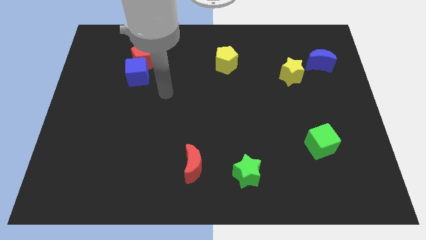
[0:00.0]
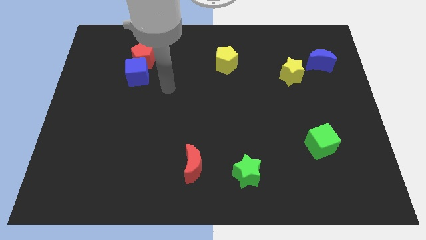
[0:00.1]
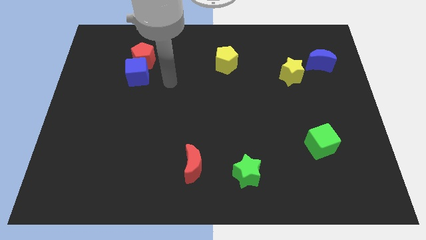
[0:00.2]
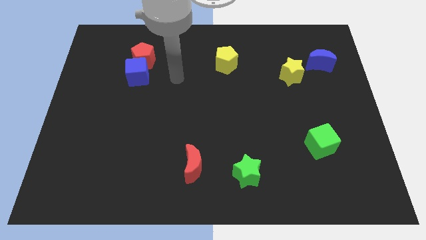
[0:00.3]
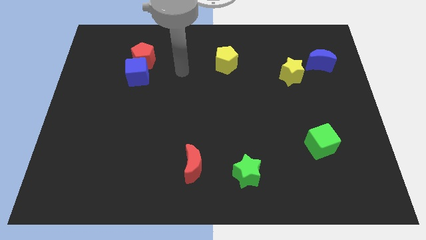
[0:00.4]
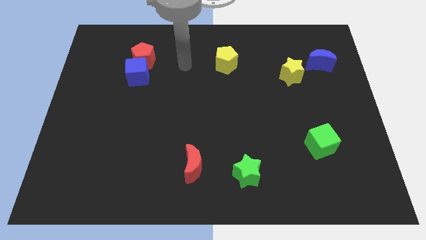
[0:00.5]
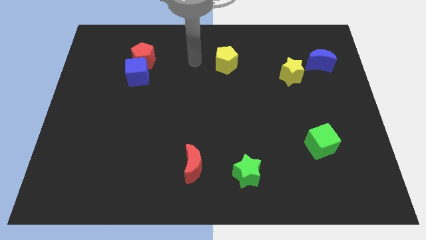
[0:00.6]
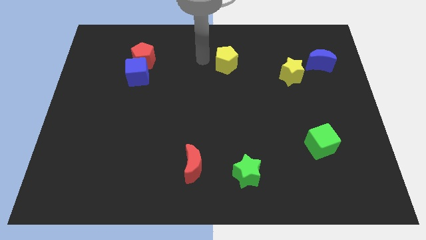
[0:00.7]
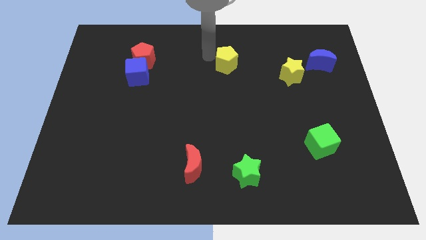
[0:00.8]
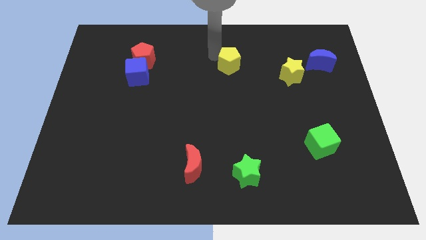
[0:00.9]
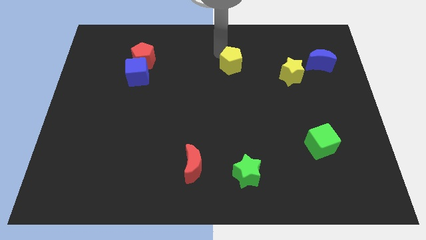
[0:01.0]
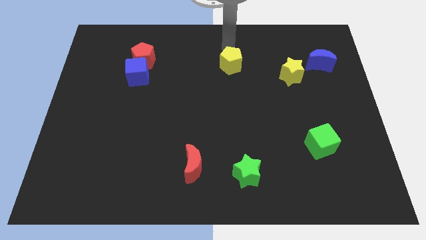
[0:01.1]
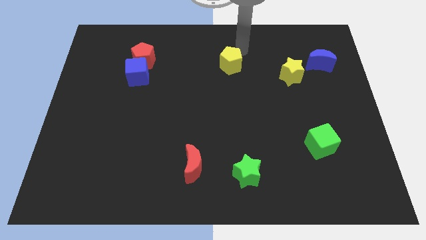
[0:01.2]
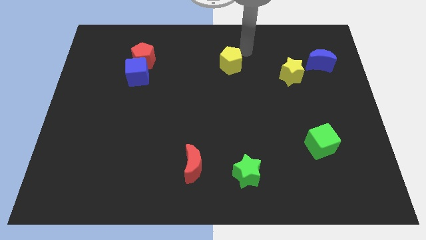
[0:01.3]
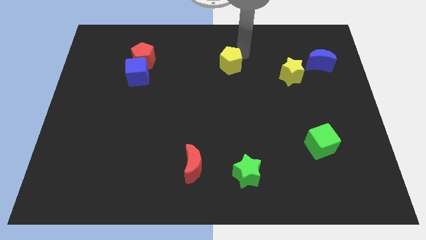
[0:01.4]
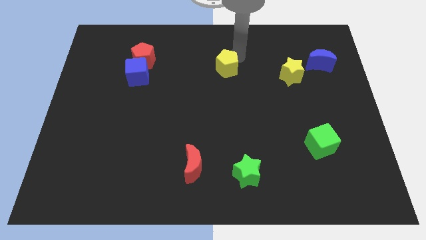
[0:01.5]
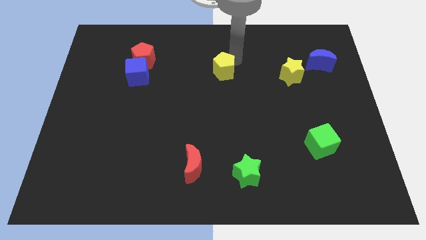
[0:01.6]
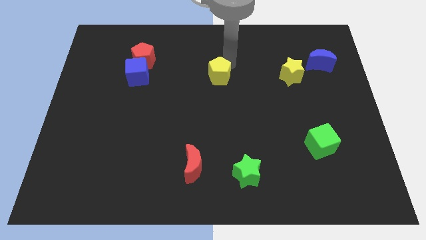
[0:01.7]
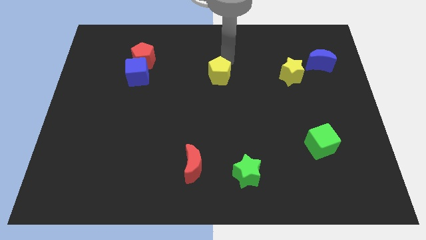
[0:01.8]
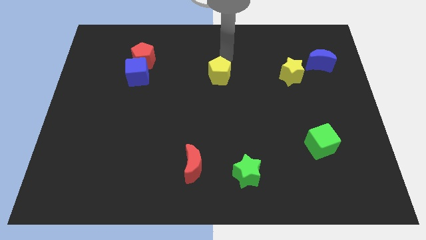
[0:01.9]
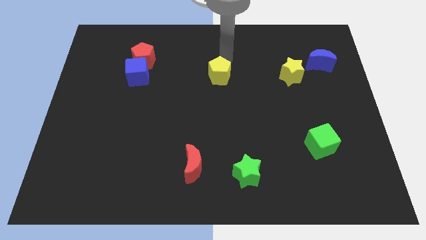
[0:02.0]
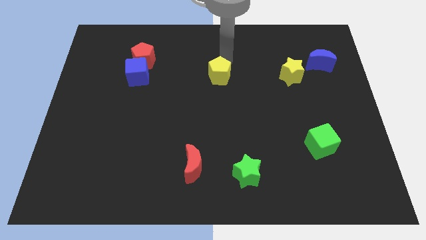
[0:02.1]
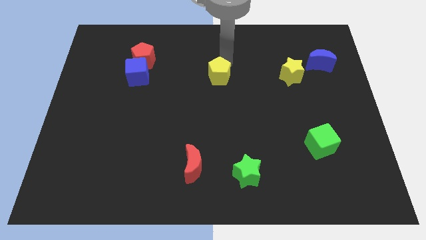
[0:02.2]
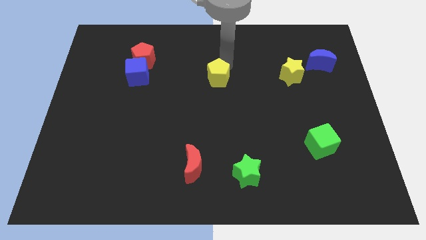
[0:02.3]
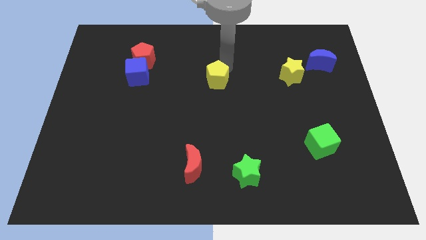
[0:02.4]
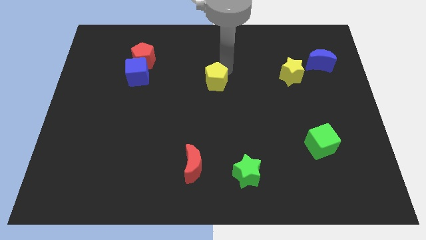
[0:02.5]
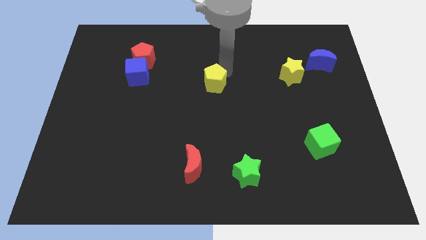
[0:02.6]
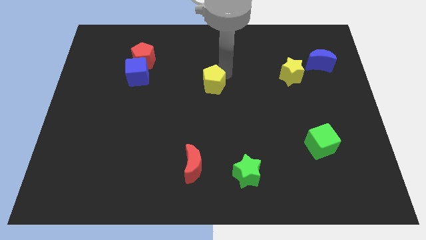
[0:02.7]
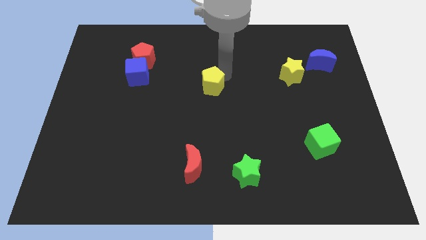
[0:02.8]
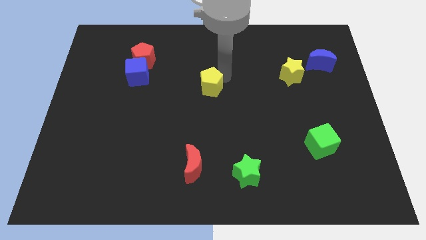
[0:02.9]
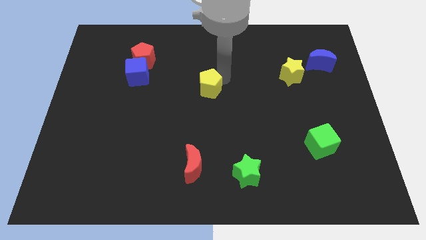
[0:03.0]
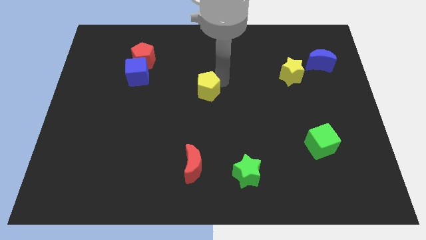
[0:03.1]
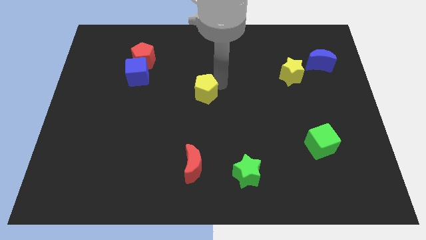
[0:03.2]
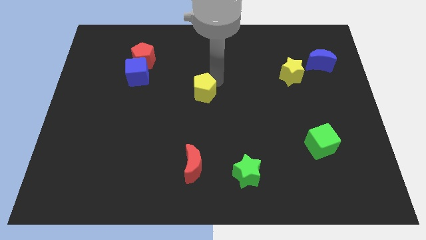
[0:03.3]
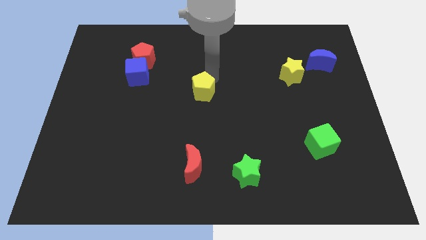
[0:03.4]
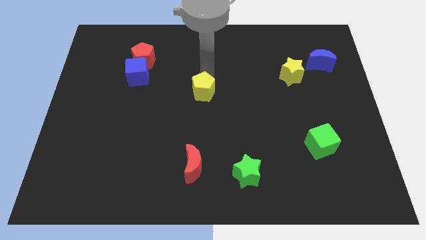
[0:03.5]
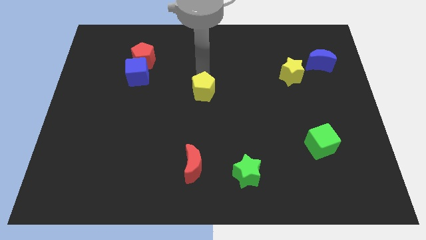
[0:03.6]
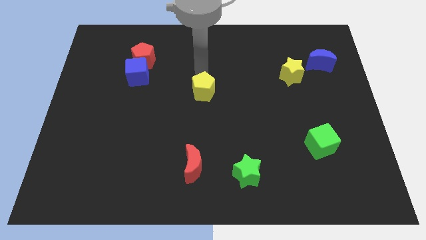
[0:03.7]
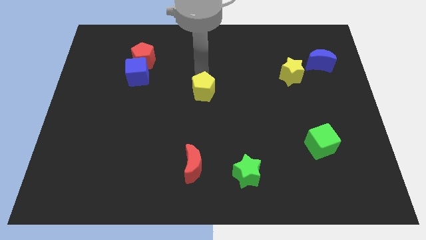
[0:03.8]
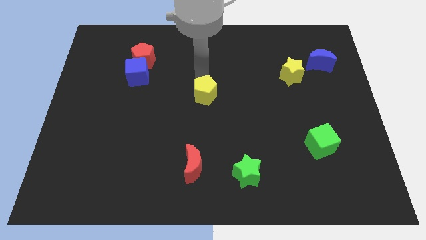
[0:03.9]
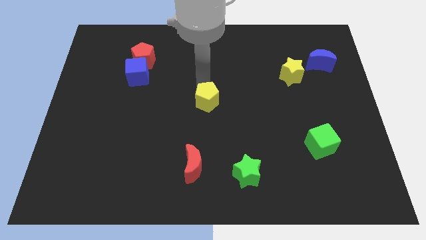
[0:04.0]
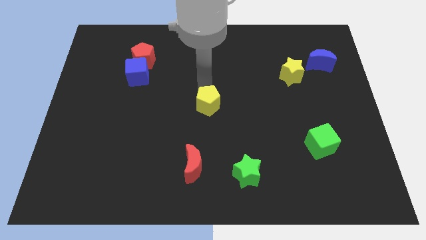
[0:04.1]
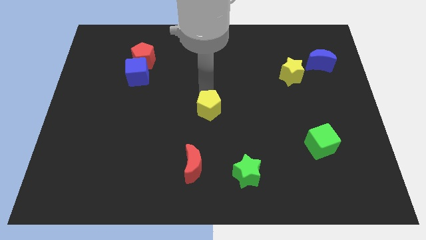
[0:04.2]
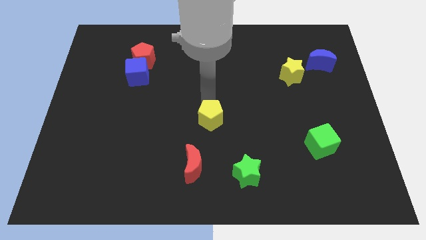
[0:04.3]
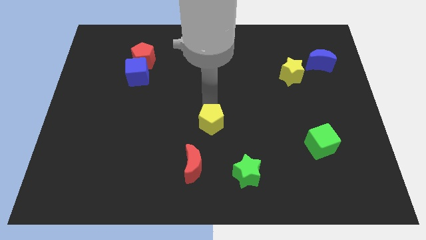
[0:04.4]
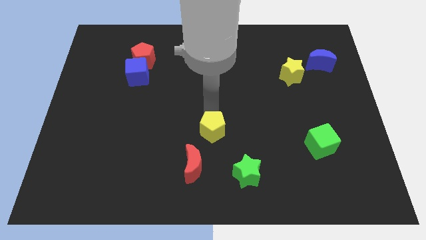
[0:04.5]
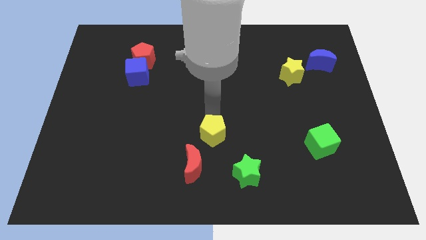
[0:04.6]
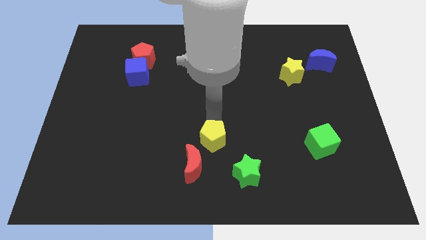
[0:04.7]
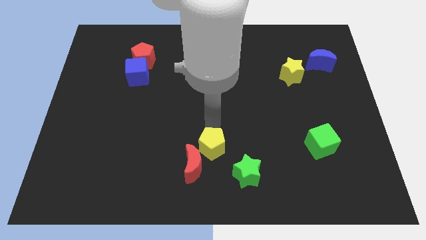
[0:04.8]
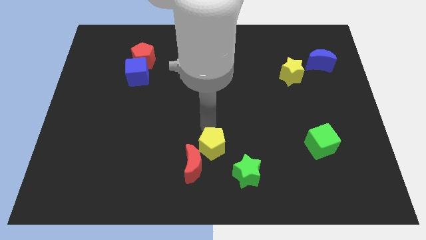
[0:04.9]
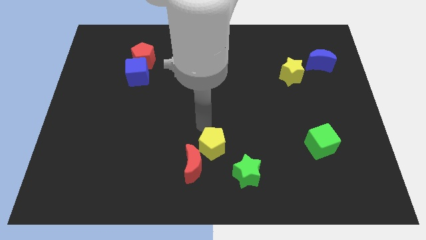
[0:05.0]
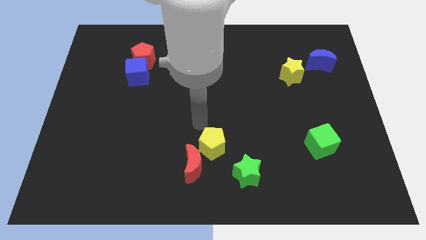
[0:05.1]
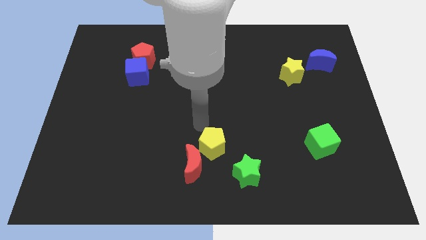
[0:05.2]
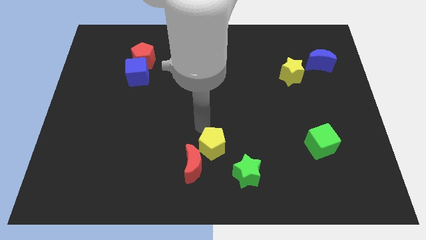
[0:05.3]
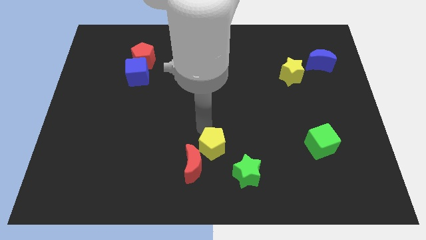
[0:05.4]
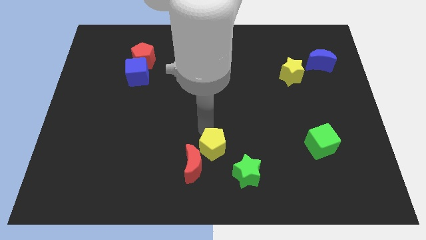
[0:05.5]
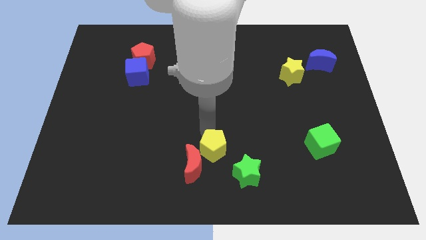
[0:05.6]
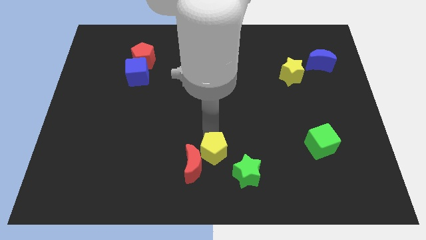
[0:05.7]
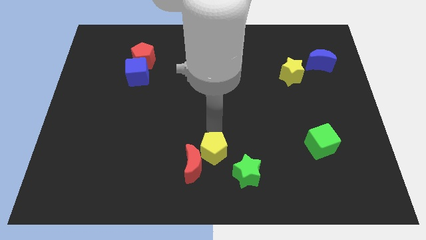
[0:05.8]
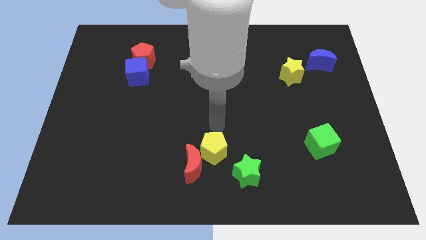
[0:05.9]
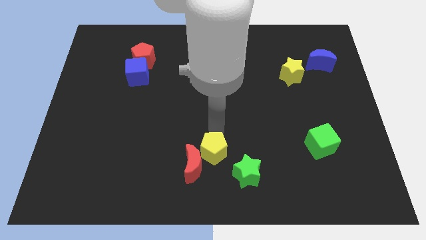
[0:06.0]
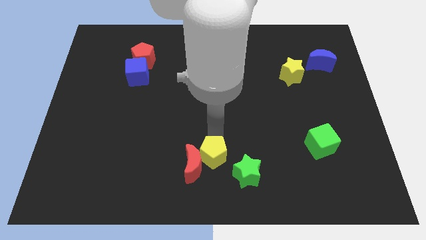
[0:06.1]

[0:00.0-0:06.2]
push the yellow pentagon to the bottom side
